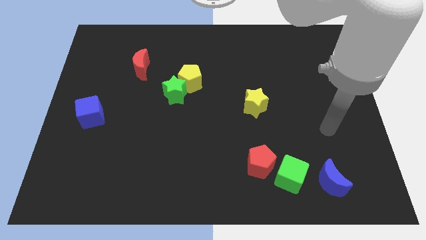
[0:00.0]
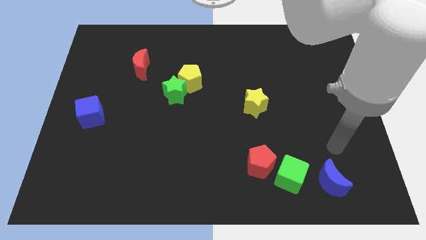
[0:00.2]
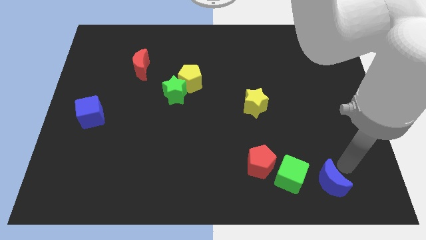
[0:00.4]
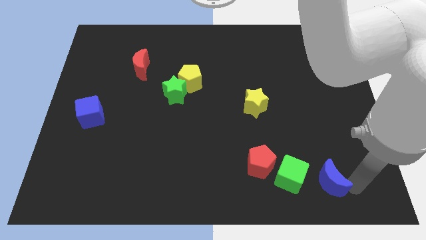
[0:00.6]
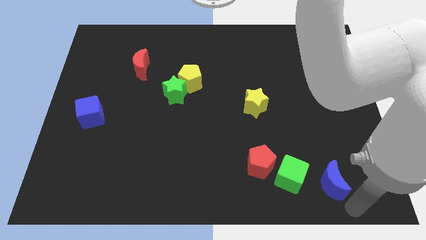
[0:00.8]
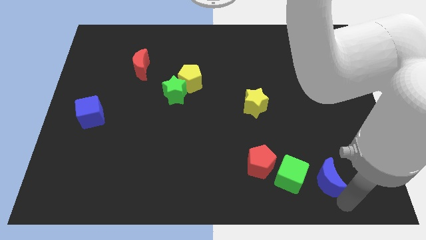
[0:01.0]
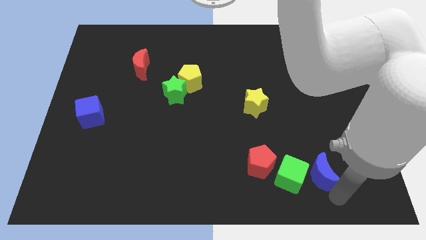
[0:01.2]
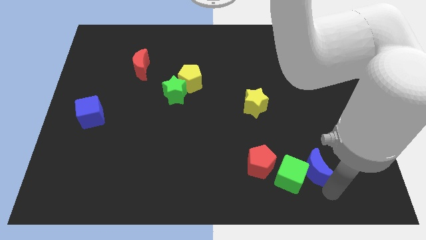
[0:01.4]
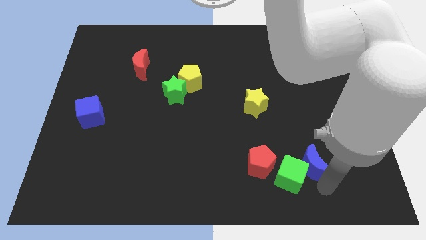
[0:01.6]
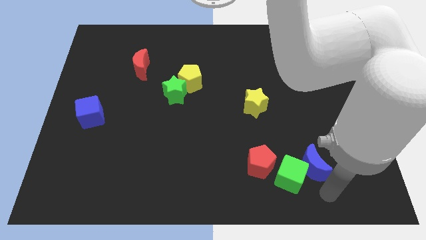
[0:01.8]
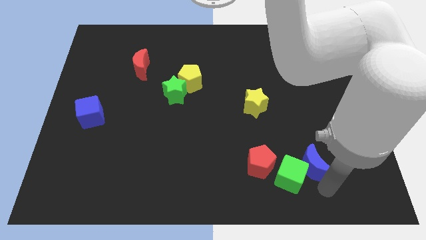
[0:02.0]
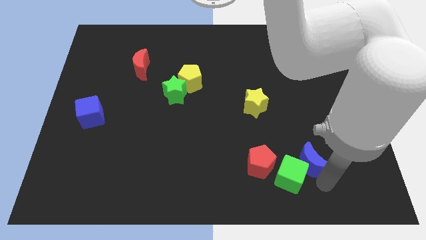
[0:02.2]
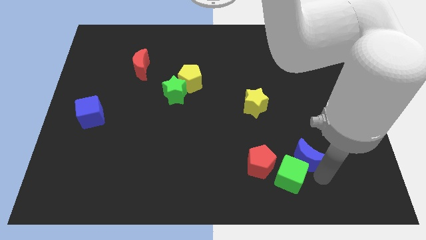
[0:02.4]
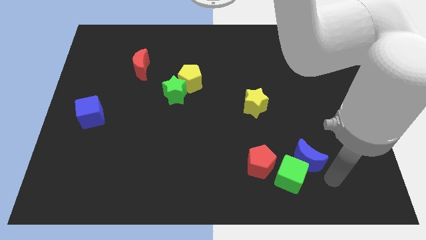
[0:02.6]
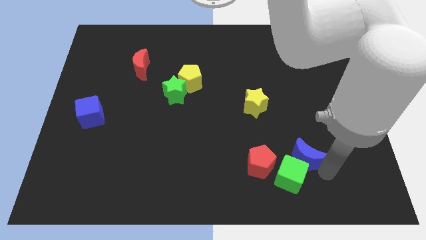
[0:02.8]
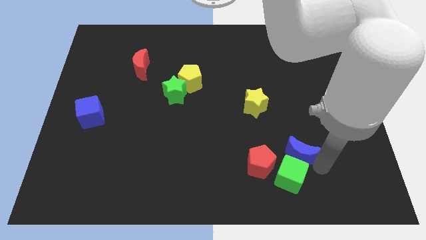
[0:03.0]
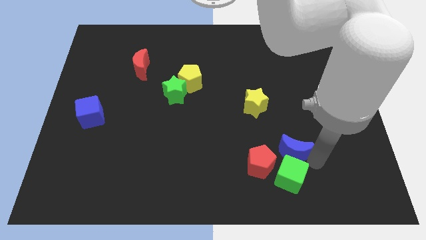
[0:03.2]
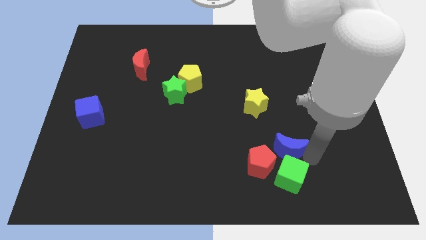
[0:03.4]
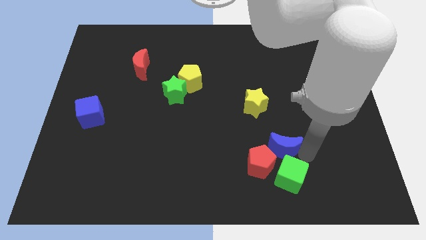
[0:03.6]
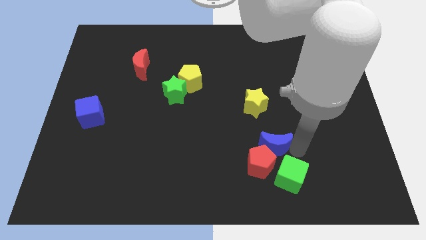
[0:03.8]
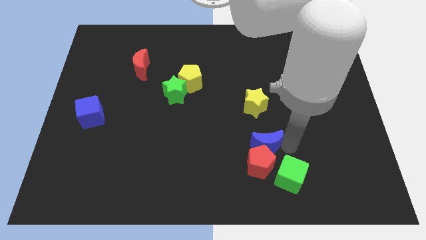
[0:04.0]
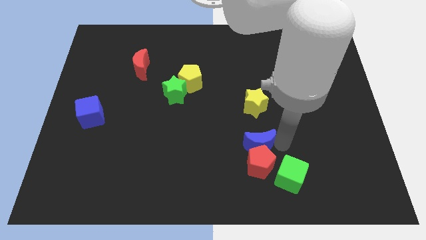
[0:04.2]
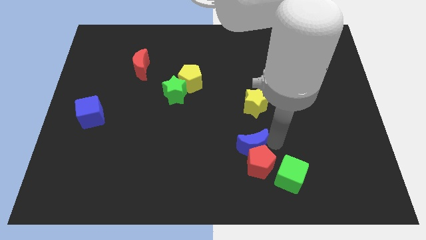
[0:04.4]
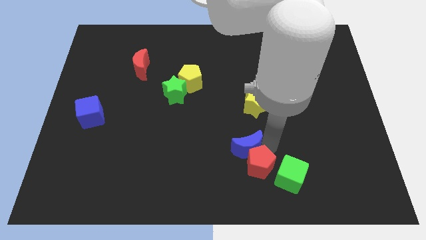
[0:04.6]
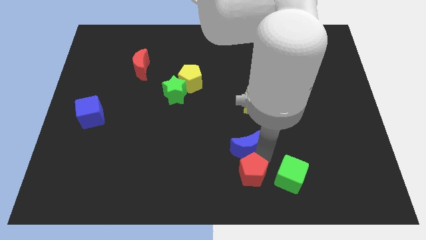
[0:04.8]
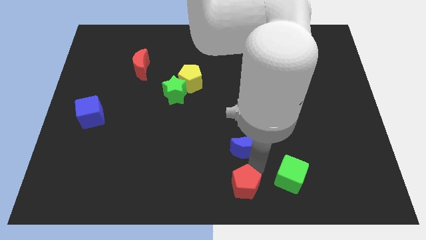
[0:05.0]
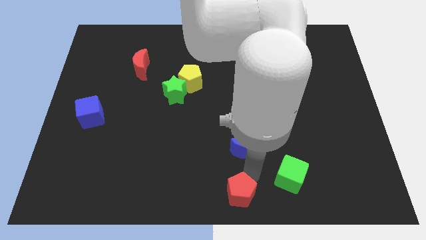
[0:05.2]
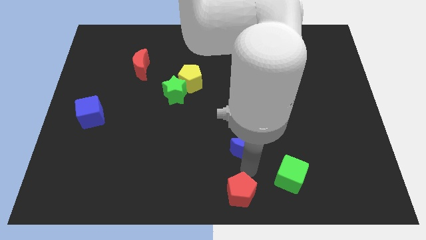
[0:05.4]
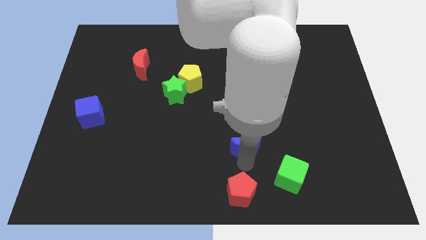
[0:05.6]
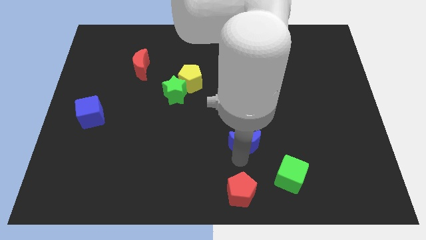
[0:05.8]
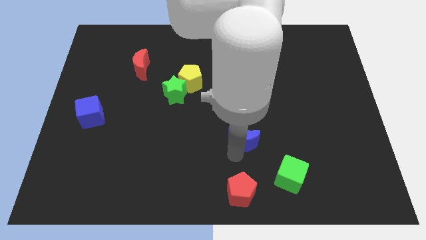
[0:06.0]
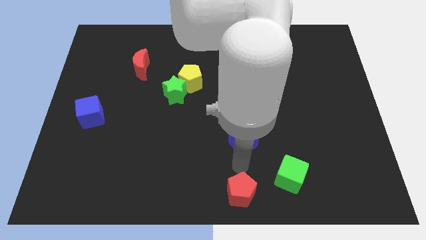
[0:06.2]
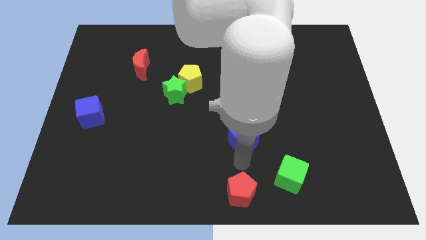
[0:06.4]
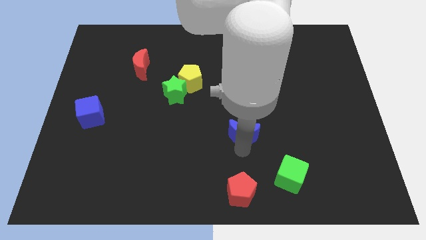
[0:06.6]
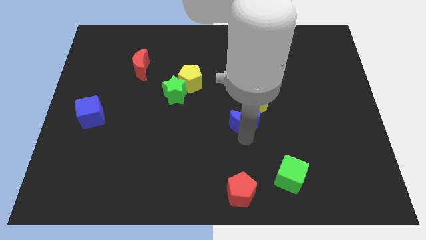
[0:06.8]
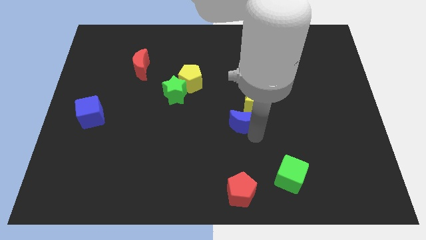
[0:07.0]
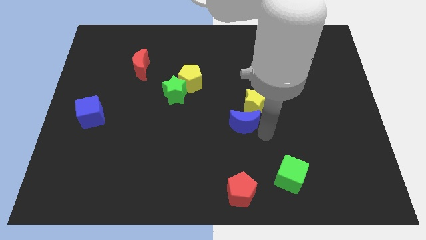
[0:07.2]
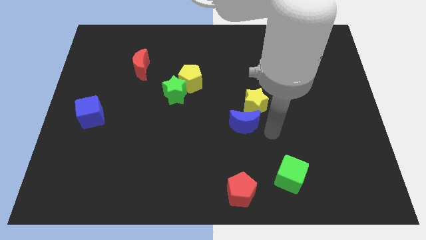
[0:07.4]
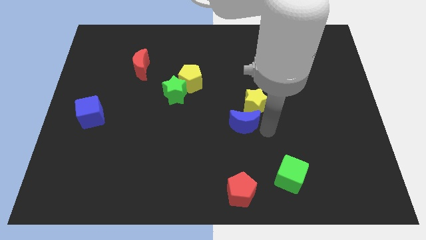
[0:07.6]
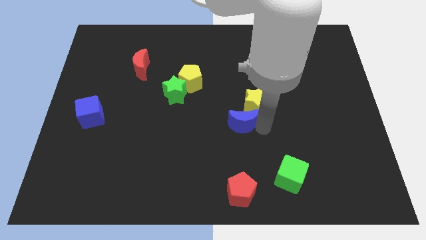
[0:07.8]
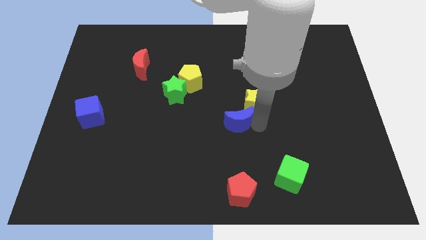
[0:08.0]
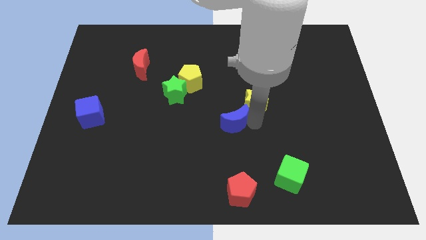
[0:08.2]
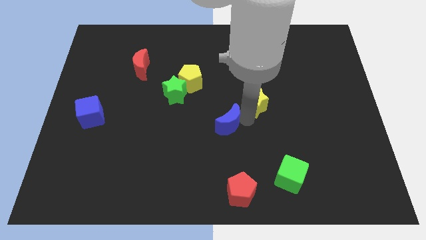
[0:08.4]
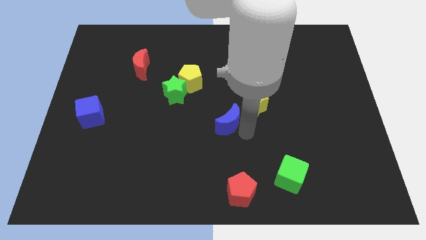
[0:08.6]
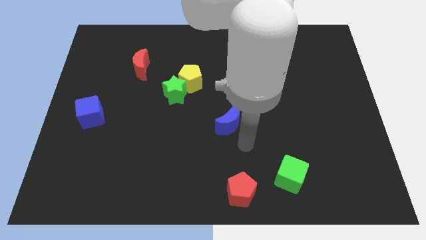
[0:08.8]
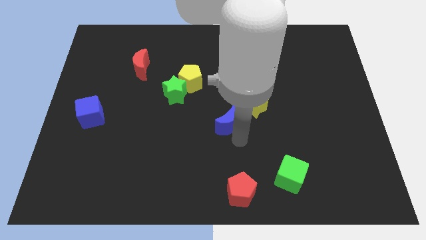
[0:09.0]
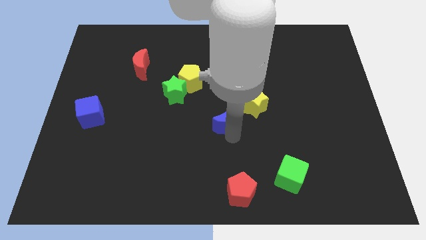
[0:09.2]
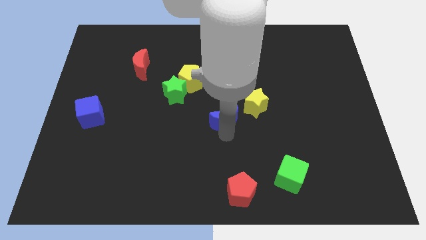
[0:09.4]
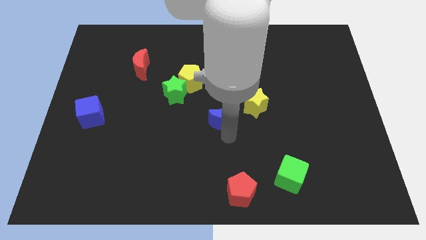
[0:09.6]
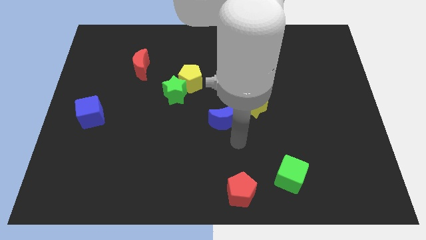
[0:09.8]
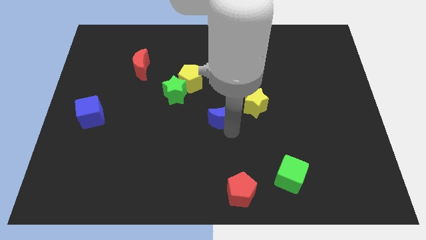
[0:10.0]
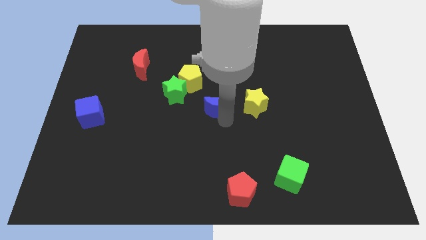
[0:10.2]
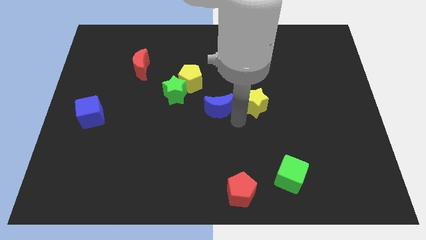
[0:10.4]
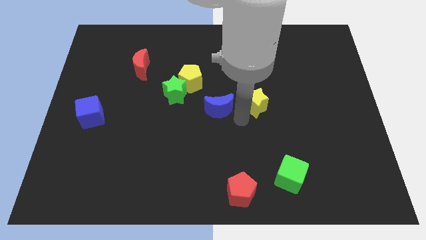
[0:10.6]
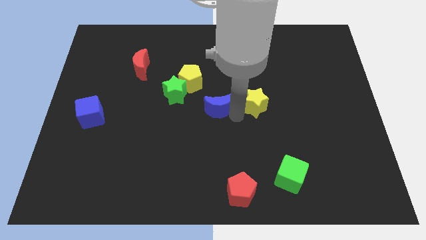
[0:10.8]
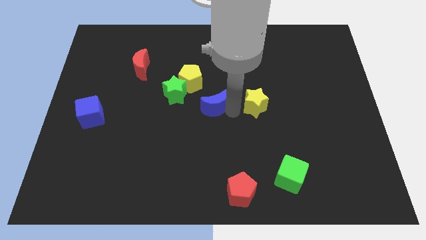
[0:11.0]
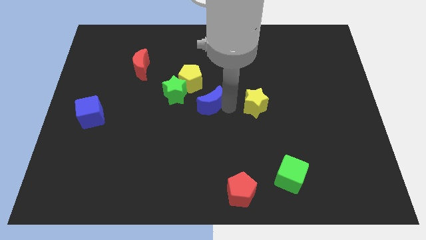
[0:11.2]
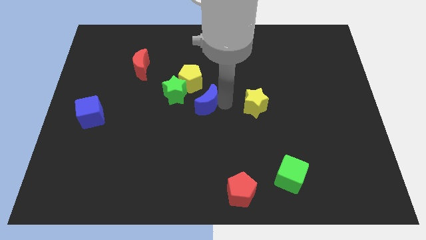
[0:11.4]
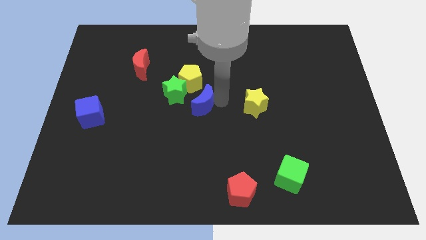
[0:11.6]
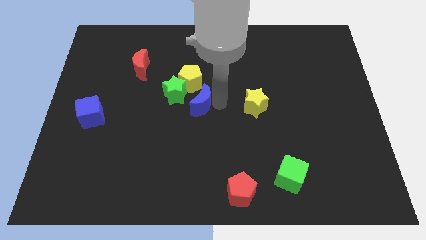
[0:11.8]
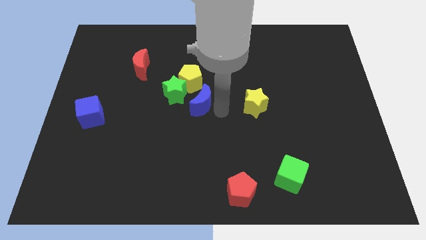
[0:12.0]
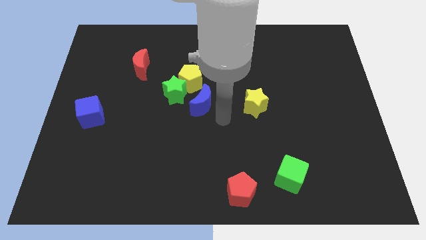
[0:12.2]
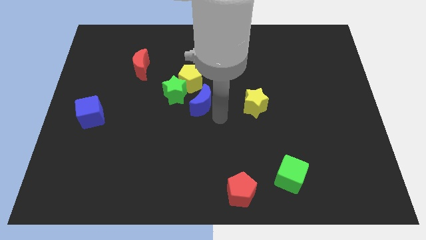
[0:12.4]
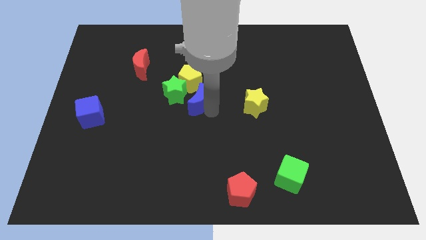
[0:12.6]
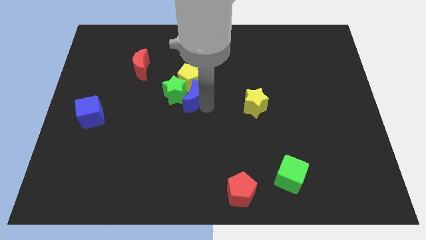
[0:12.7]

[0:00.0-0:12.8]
slide the blue moon next to the green star

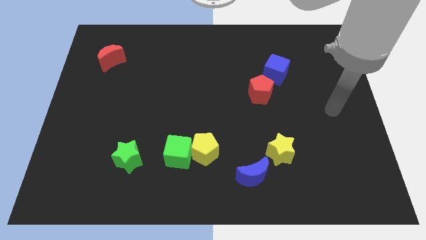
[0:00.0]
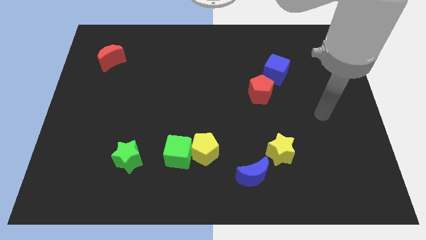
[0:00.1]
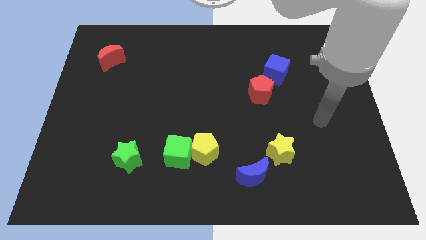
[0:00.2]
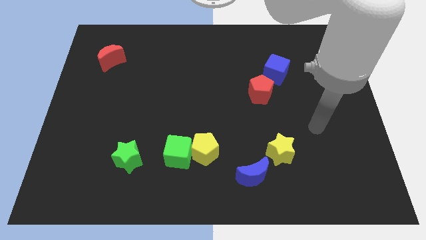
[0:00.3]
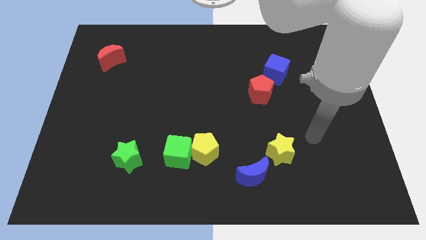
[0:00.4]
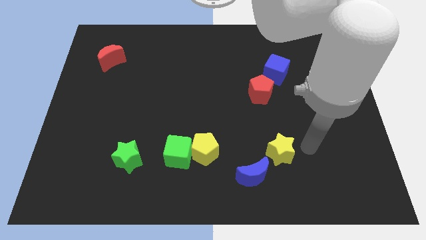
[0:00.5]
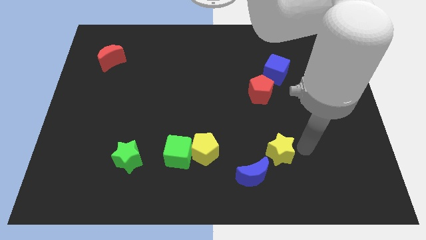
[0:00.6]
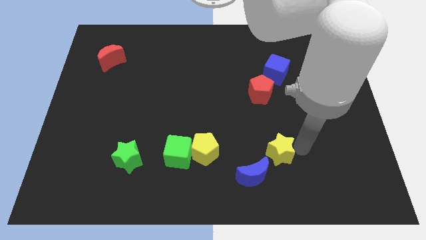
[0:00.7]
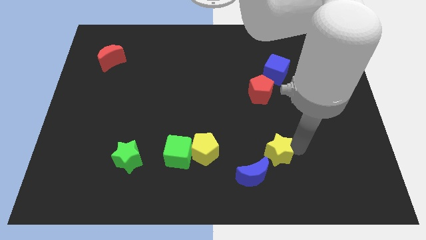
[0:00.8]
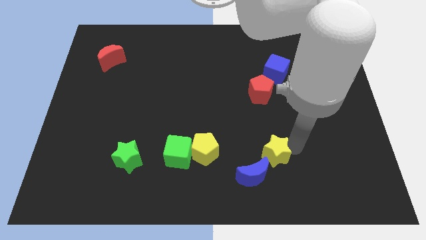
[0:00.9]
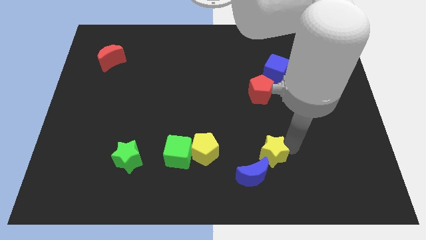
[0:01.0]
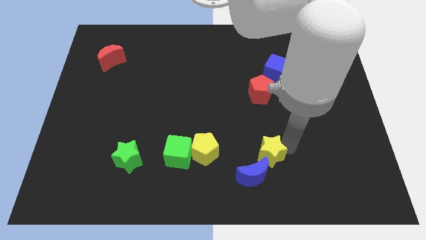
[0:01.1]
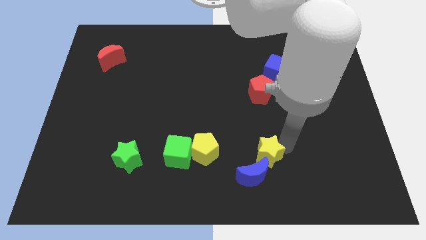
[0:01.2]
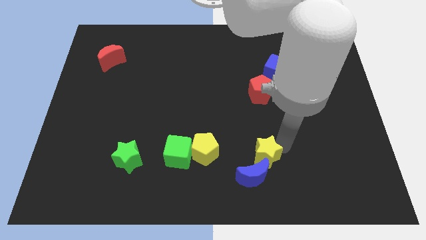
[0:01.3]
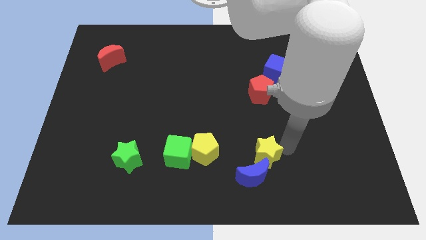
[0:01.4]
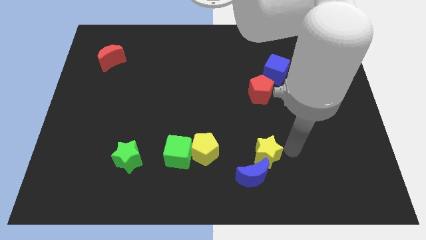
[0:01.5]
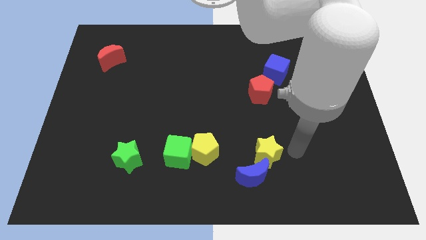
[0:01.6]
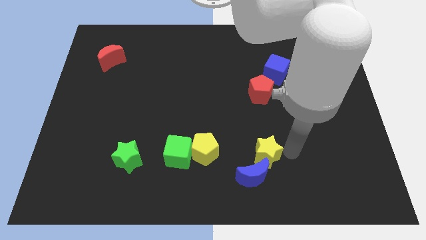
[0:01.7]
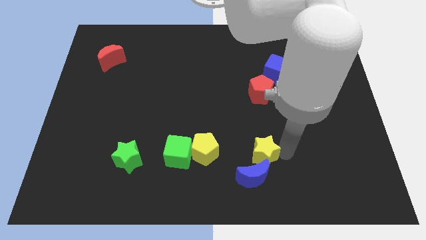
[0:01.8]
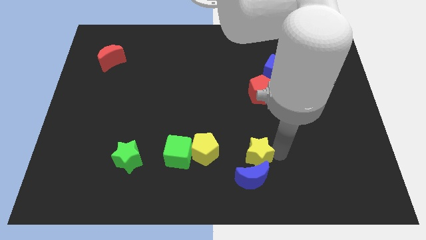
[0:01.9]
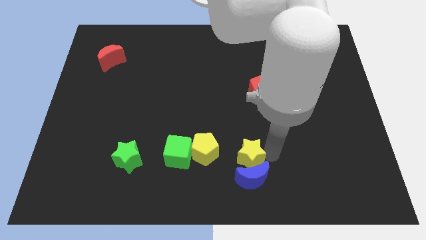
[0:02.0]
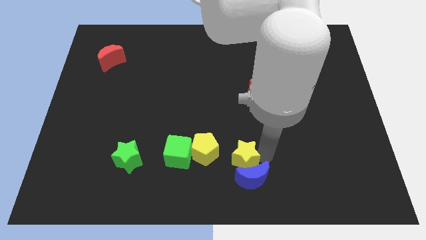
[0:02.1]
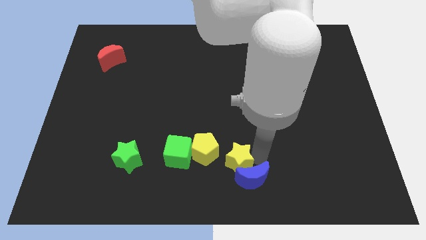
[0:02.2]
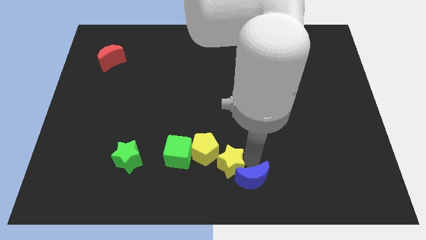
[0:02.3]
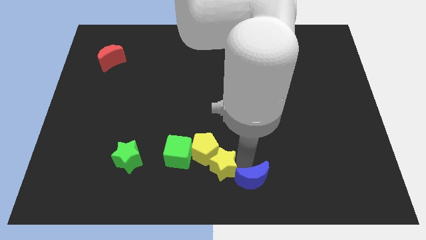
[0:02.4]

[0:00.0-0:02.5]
move the yellow star next to the yellow pentagon
